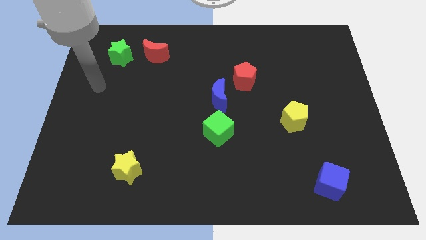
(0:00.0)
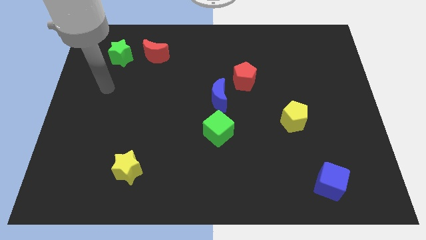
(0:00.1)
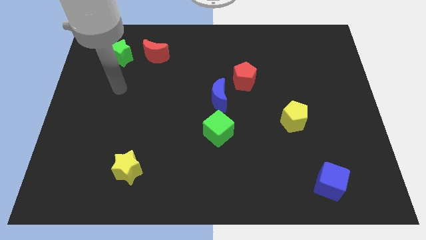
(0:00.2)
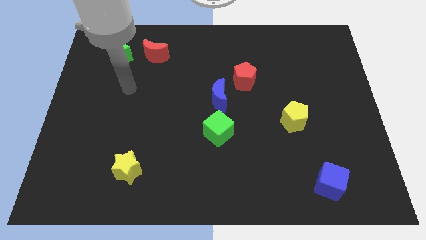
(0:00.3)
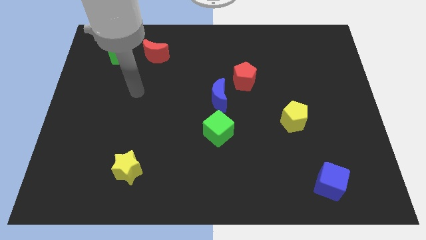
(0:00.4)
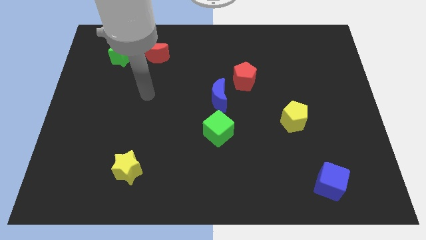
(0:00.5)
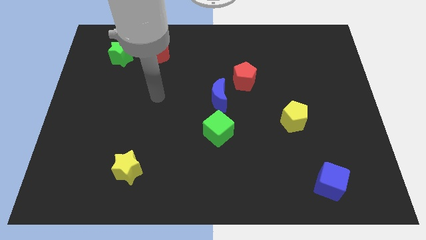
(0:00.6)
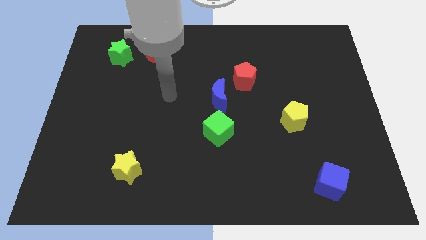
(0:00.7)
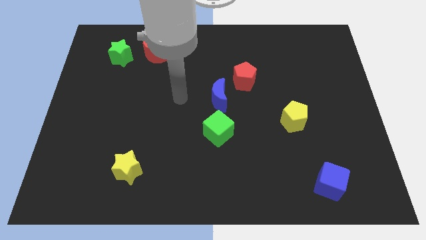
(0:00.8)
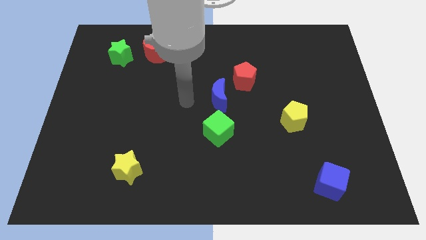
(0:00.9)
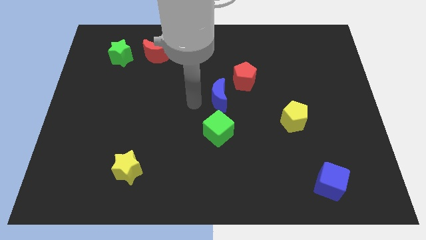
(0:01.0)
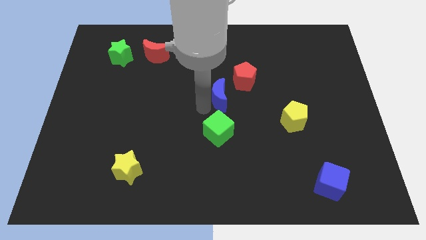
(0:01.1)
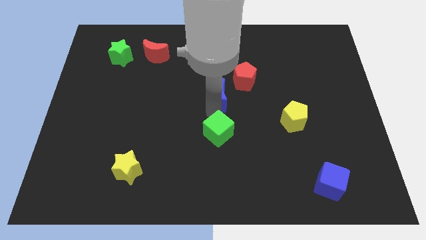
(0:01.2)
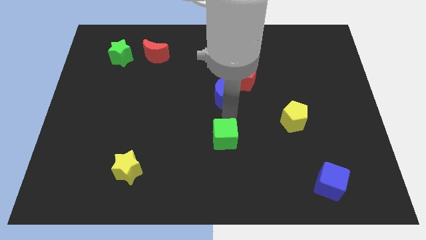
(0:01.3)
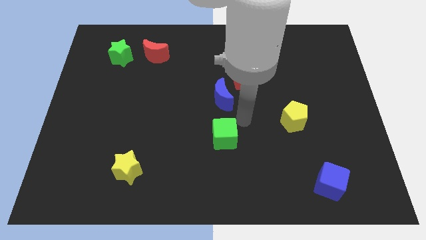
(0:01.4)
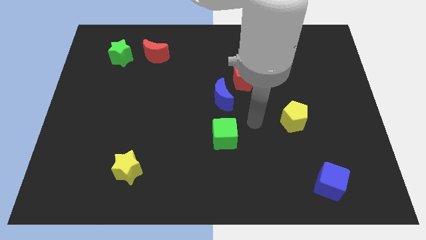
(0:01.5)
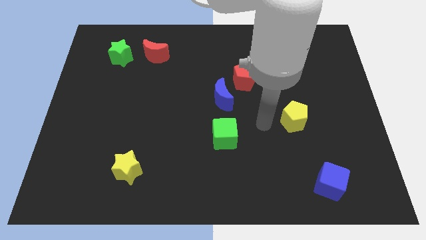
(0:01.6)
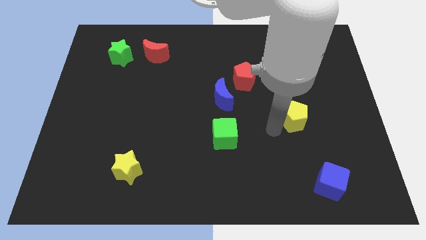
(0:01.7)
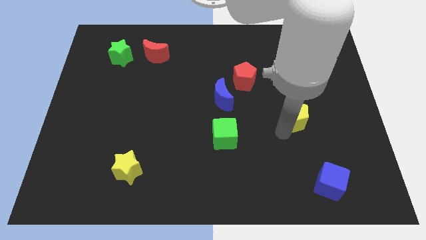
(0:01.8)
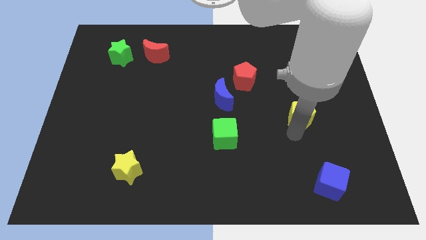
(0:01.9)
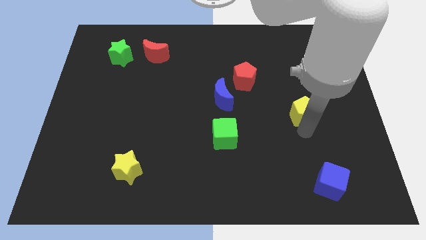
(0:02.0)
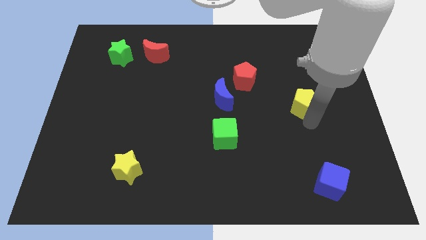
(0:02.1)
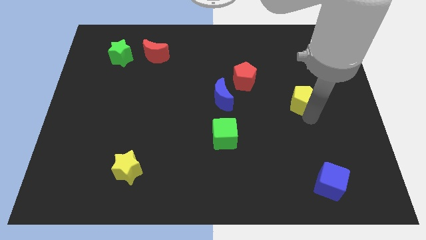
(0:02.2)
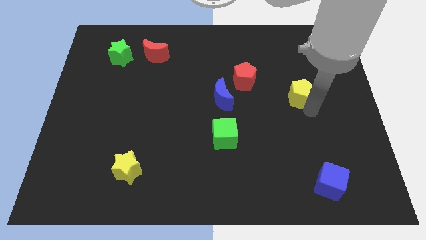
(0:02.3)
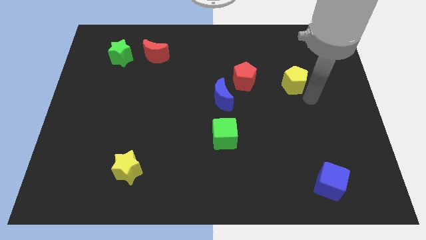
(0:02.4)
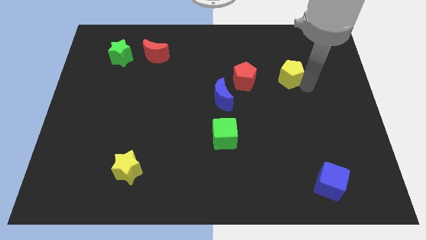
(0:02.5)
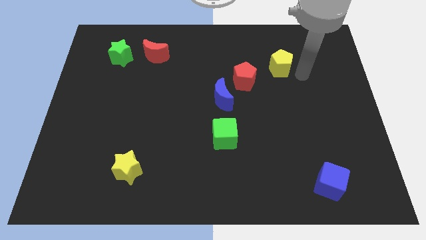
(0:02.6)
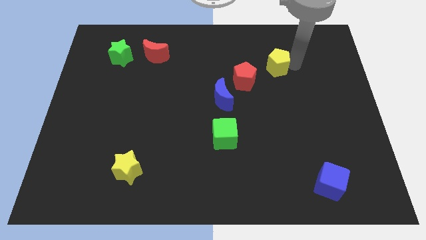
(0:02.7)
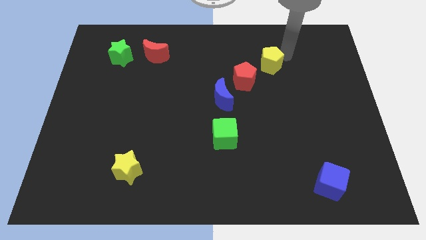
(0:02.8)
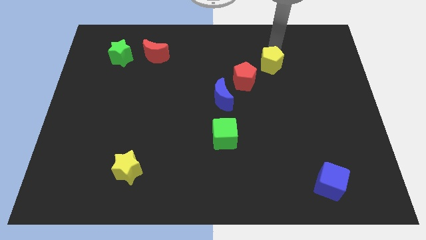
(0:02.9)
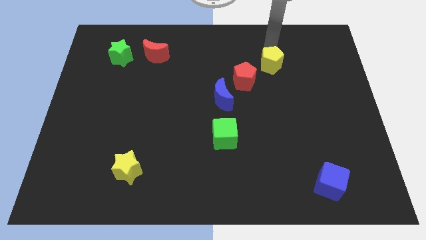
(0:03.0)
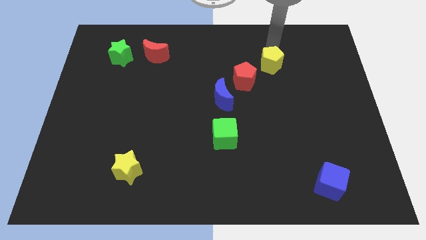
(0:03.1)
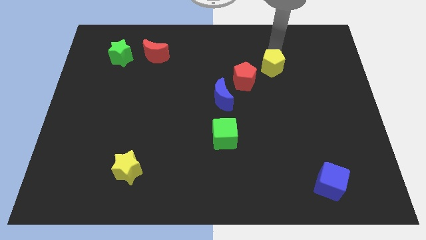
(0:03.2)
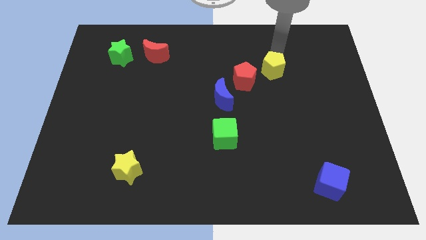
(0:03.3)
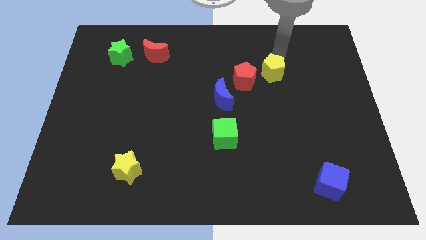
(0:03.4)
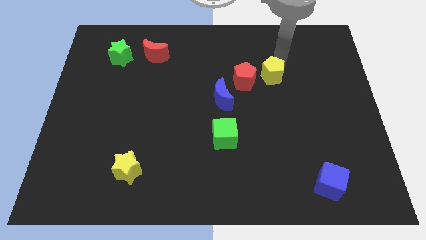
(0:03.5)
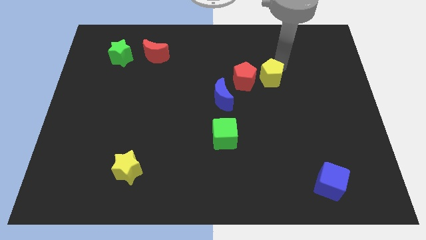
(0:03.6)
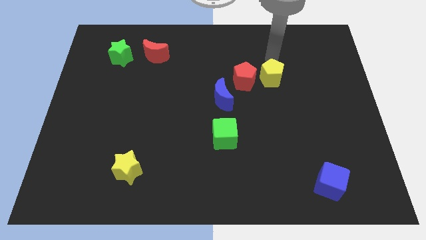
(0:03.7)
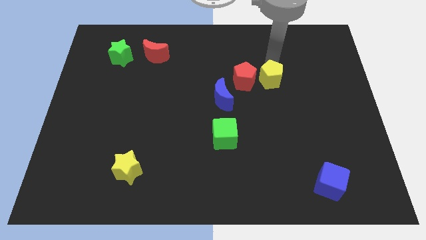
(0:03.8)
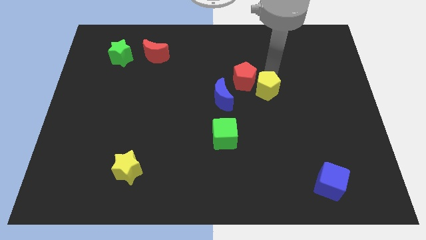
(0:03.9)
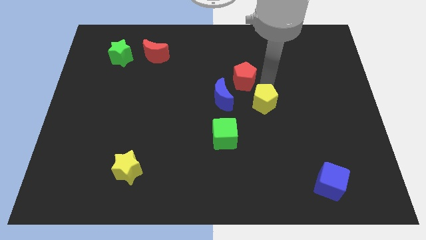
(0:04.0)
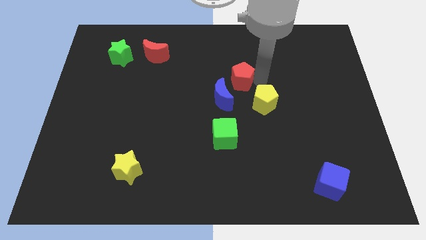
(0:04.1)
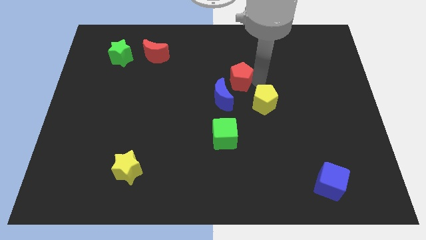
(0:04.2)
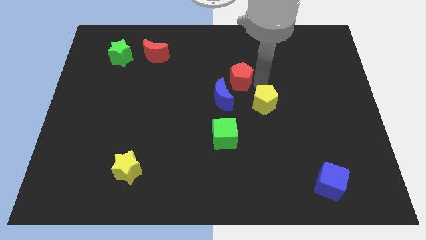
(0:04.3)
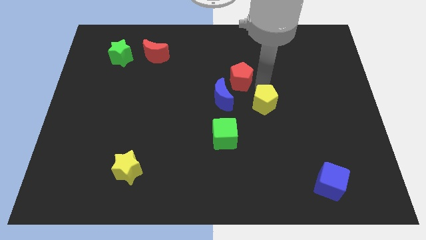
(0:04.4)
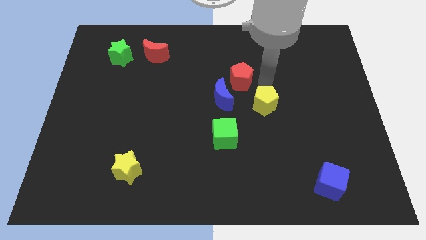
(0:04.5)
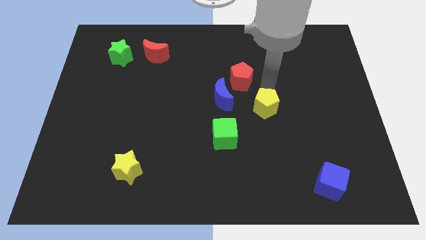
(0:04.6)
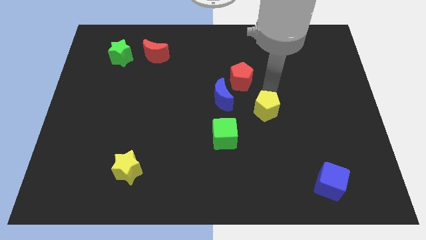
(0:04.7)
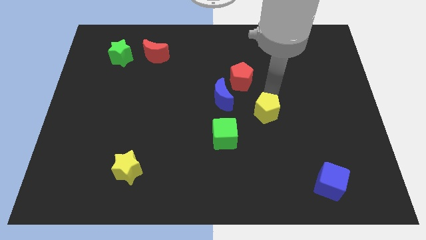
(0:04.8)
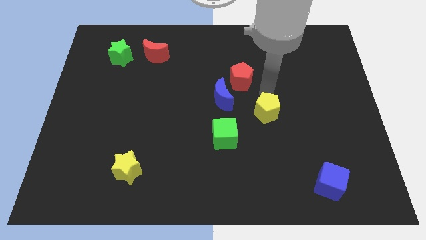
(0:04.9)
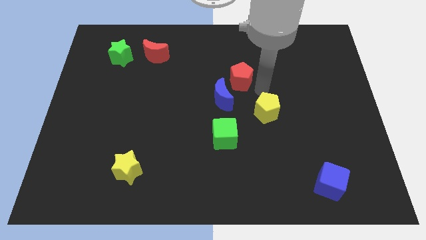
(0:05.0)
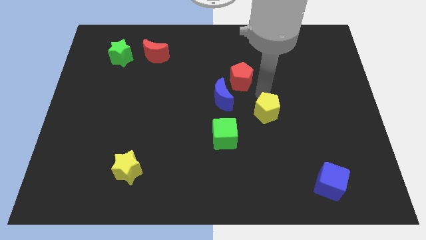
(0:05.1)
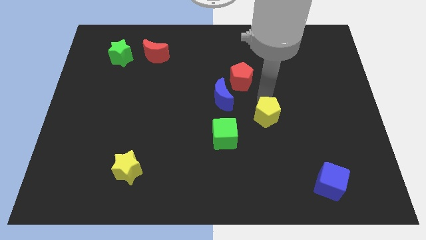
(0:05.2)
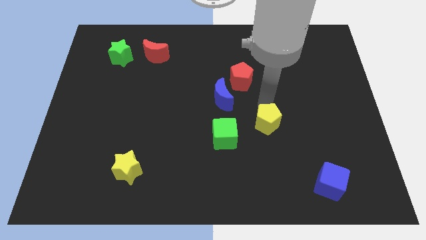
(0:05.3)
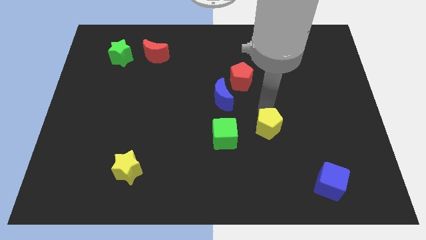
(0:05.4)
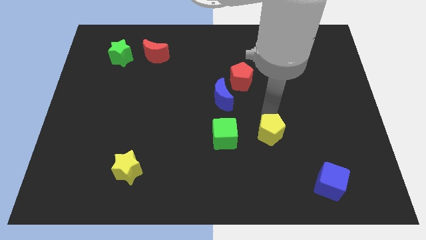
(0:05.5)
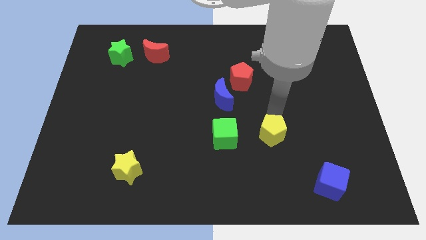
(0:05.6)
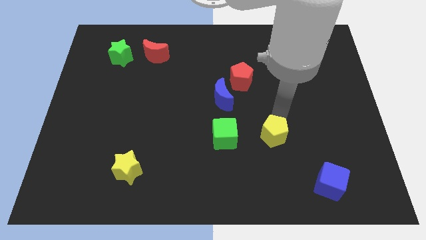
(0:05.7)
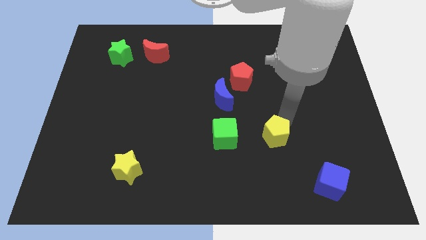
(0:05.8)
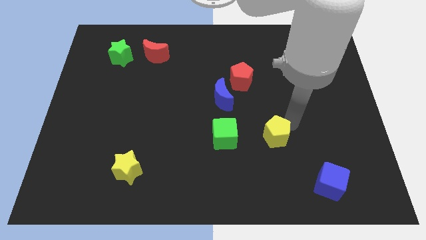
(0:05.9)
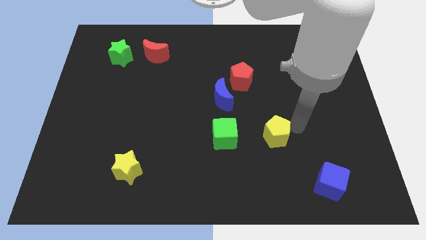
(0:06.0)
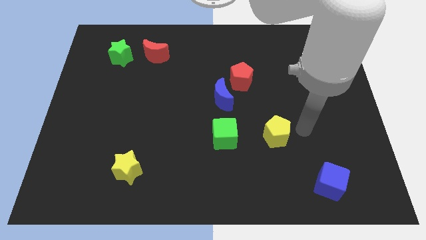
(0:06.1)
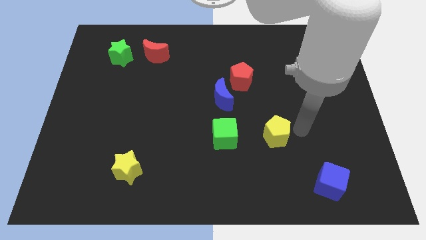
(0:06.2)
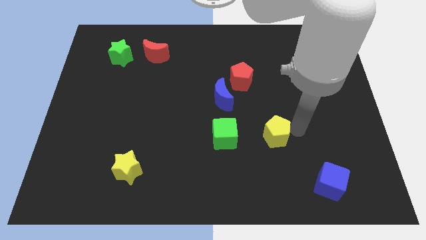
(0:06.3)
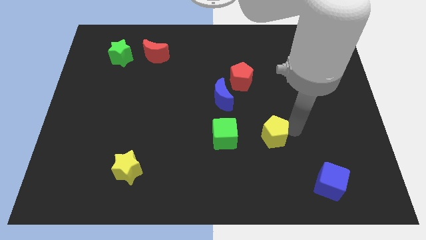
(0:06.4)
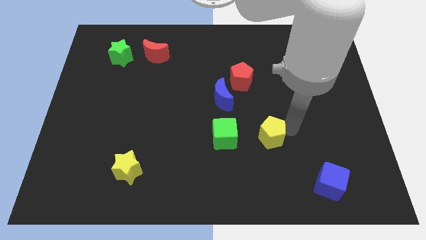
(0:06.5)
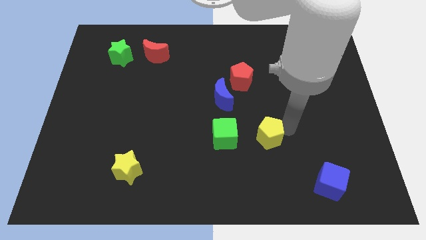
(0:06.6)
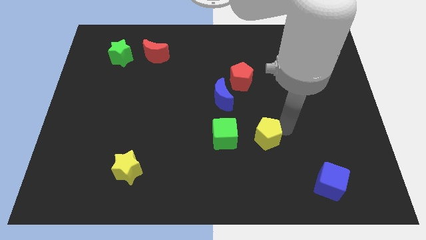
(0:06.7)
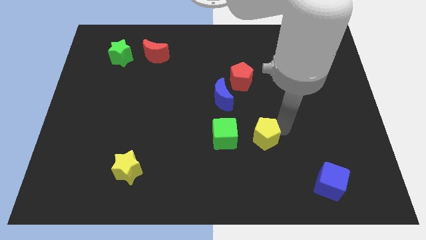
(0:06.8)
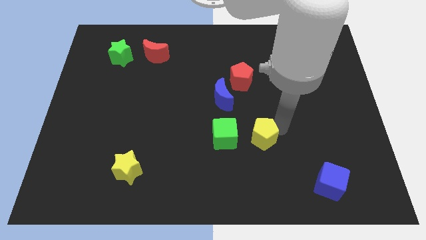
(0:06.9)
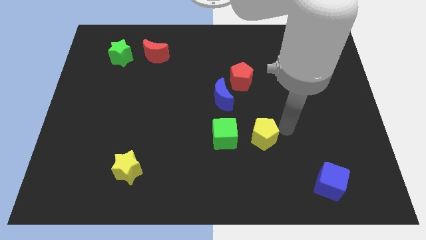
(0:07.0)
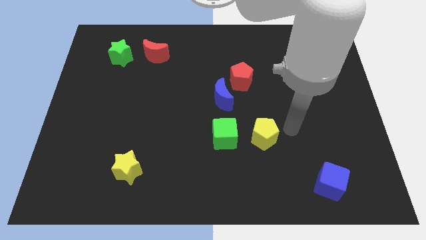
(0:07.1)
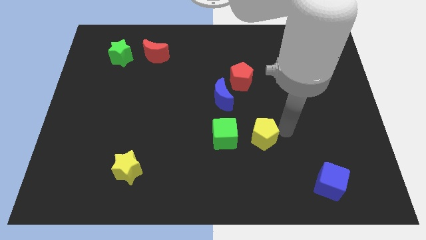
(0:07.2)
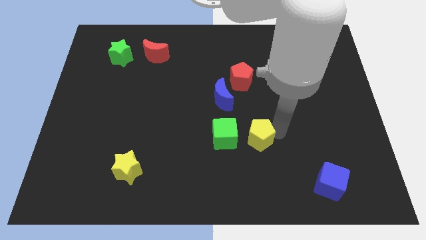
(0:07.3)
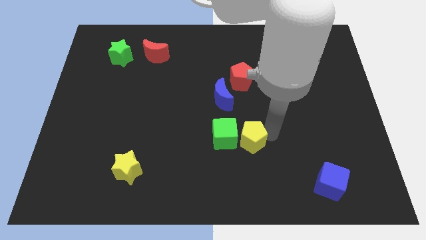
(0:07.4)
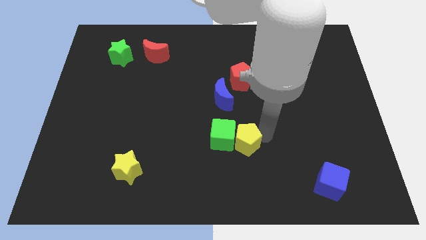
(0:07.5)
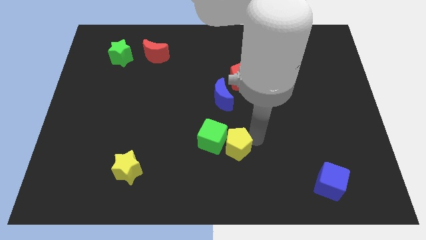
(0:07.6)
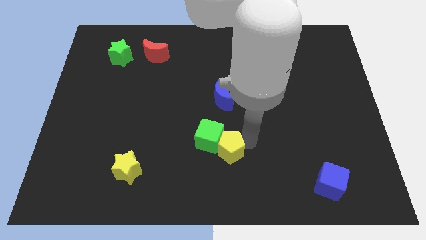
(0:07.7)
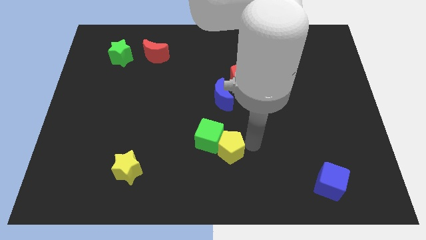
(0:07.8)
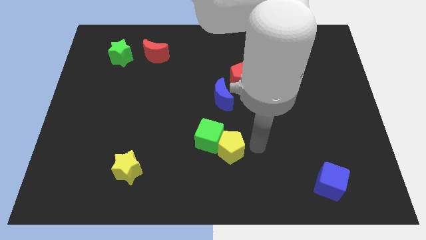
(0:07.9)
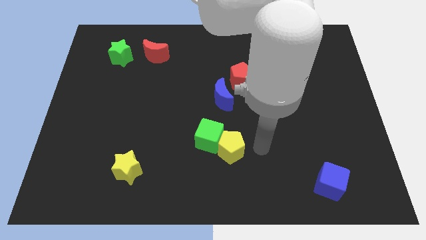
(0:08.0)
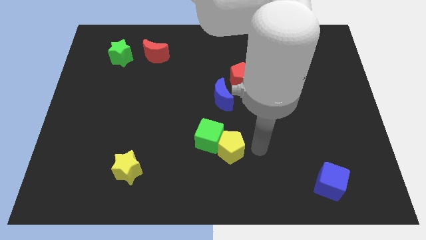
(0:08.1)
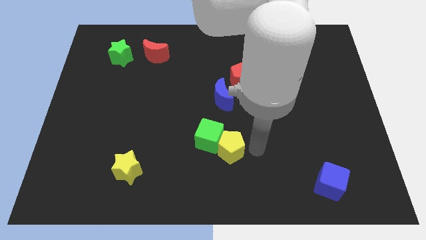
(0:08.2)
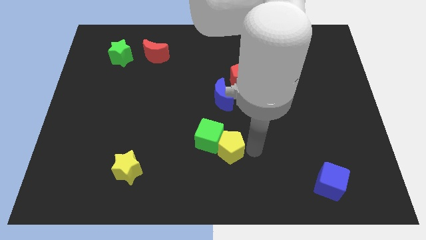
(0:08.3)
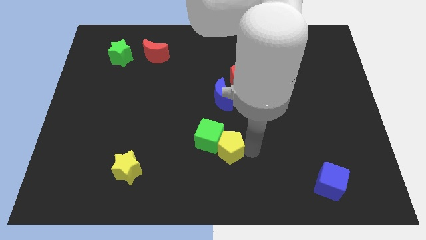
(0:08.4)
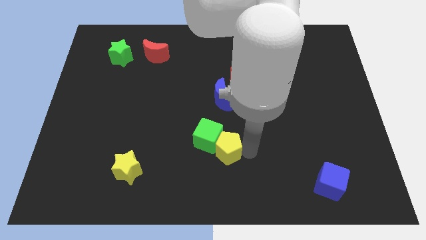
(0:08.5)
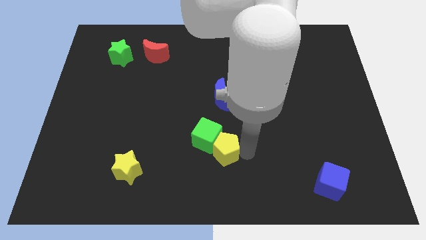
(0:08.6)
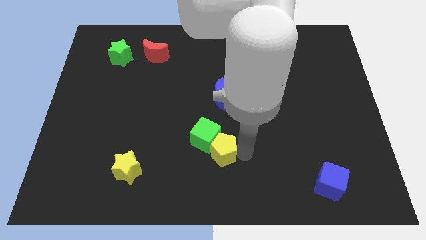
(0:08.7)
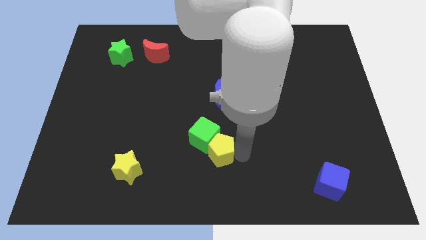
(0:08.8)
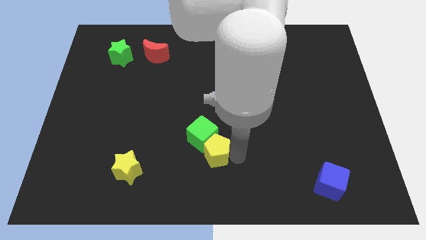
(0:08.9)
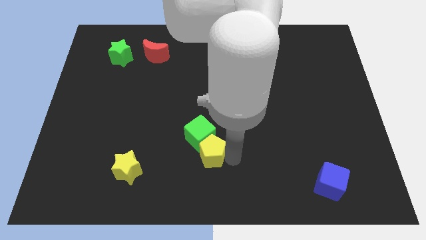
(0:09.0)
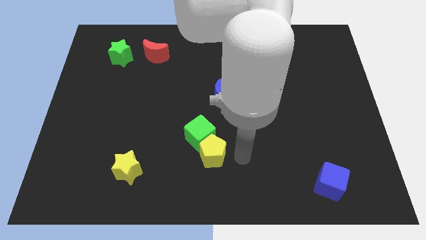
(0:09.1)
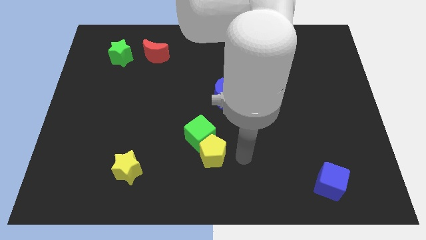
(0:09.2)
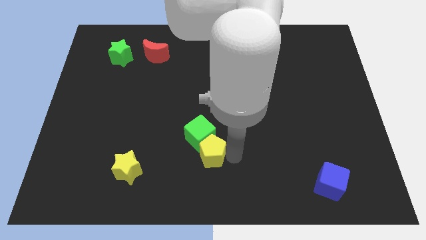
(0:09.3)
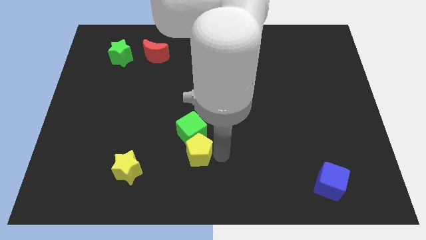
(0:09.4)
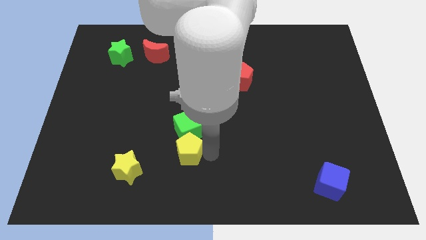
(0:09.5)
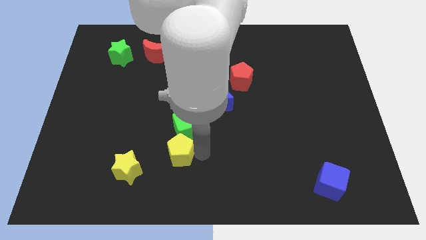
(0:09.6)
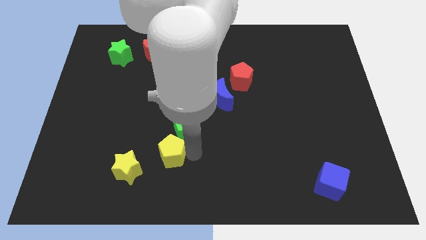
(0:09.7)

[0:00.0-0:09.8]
slide the yellow pentagon to the top right of the yellow star
